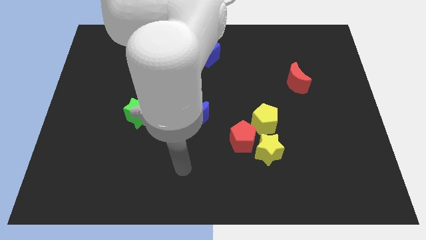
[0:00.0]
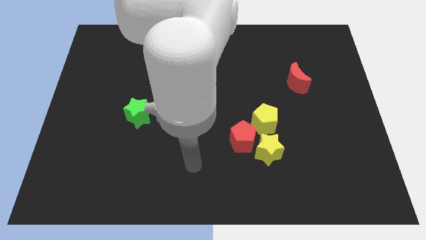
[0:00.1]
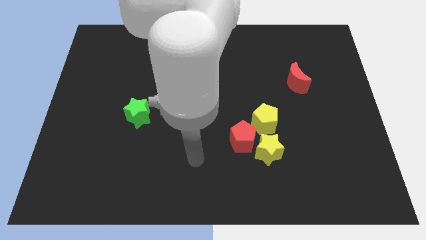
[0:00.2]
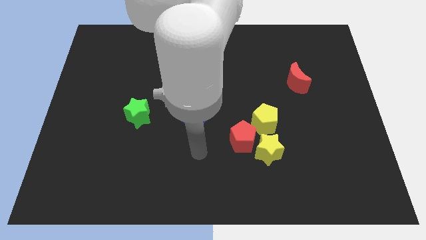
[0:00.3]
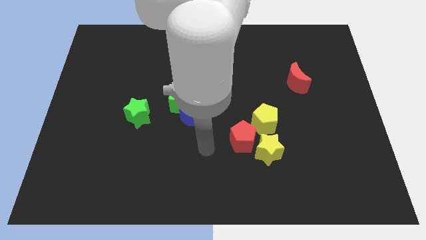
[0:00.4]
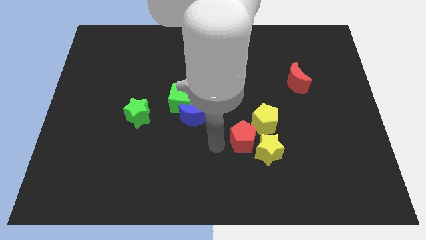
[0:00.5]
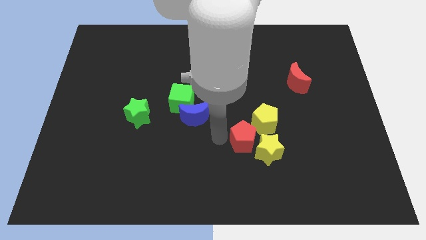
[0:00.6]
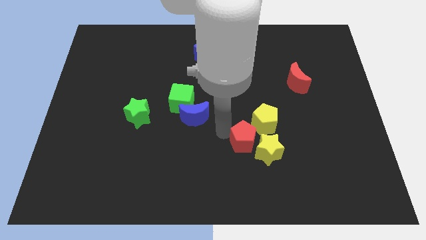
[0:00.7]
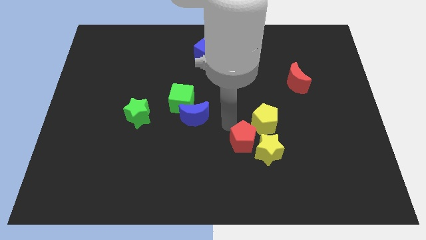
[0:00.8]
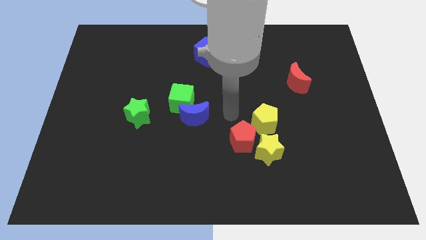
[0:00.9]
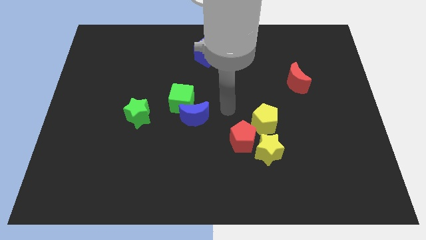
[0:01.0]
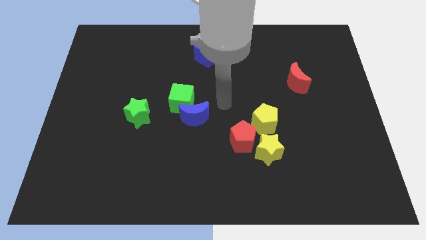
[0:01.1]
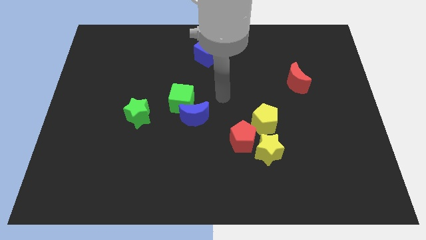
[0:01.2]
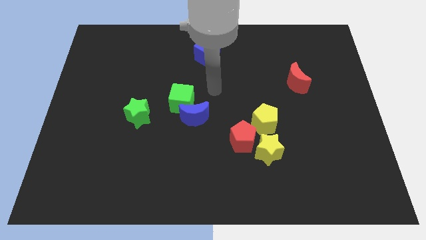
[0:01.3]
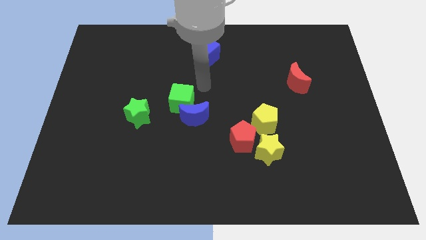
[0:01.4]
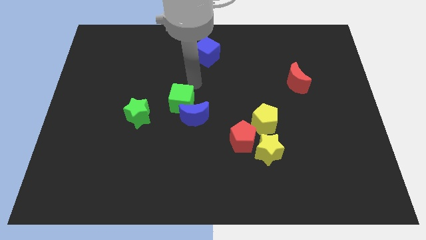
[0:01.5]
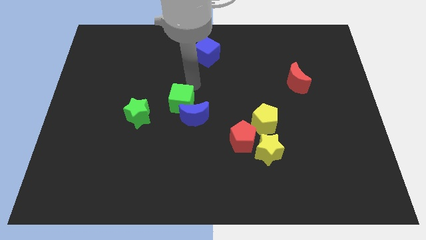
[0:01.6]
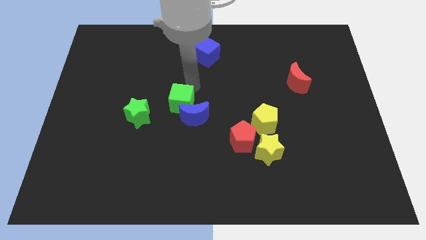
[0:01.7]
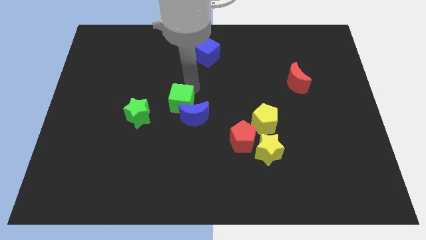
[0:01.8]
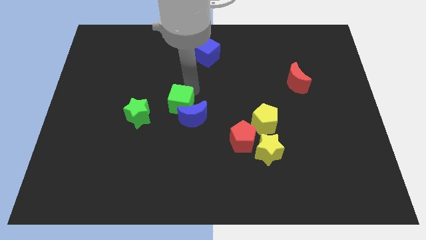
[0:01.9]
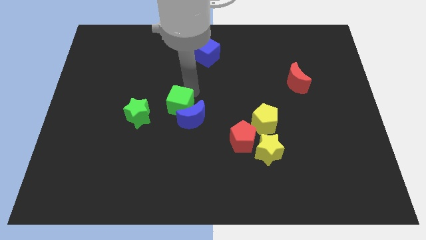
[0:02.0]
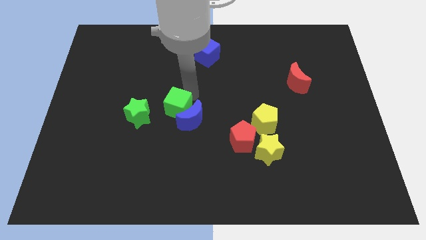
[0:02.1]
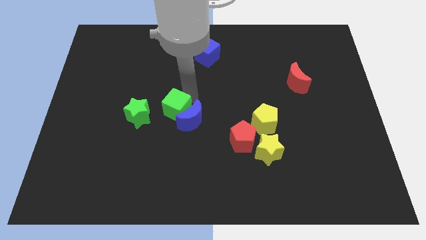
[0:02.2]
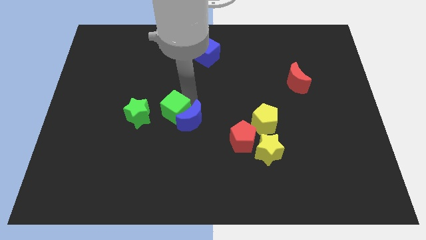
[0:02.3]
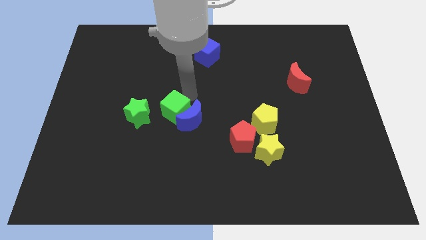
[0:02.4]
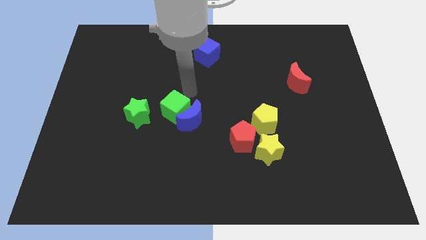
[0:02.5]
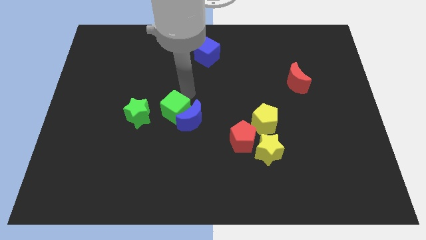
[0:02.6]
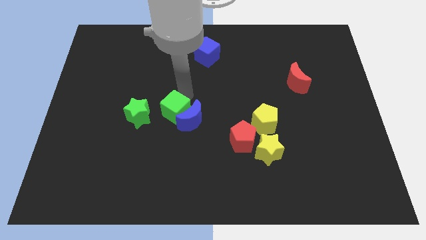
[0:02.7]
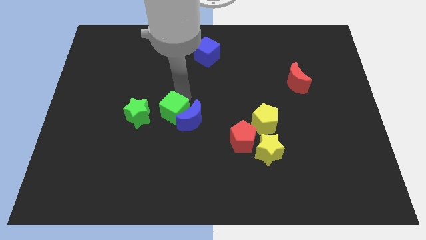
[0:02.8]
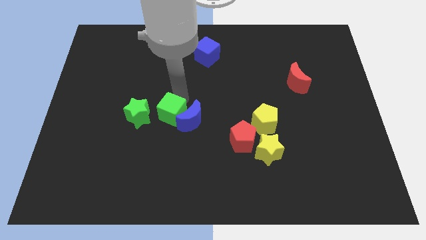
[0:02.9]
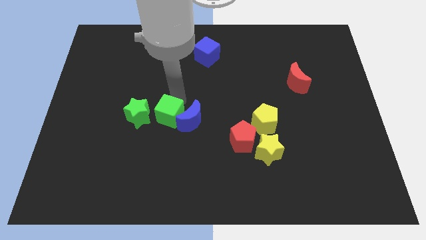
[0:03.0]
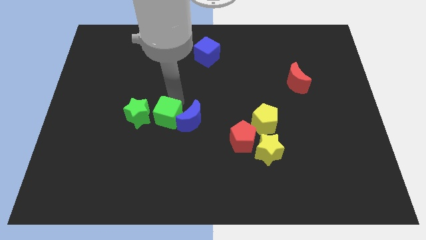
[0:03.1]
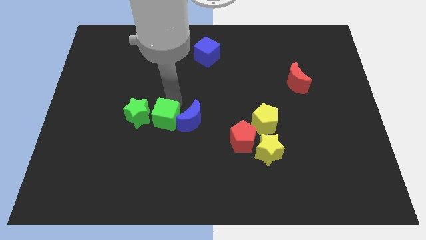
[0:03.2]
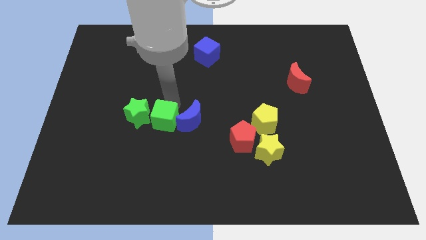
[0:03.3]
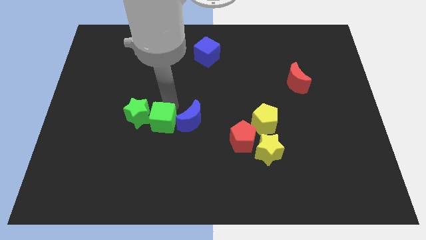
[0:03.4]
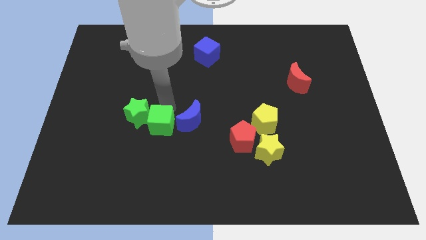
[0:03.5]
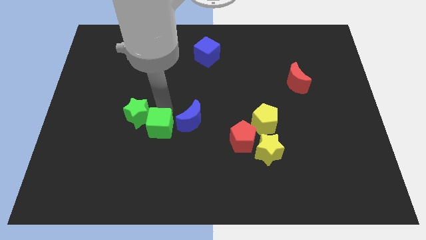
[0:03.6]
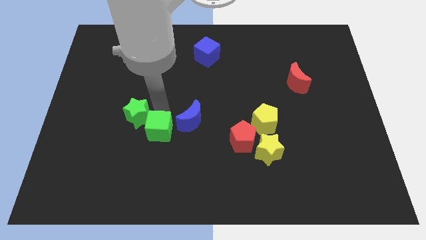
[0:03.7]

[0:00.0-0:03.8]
slightly slide the green cube downwards

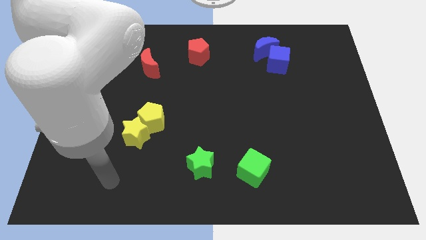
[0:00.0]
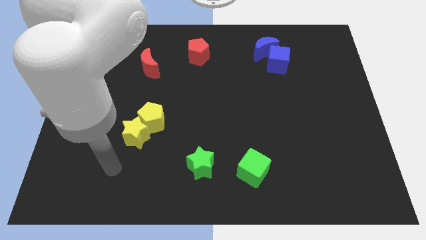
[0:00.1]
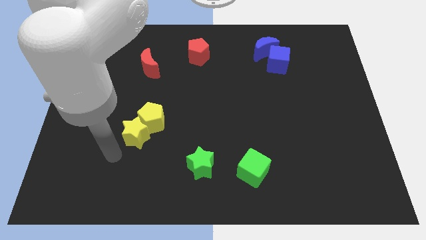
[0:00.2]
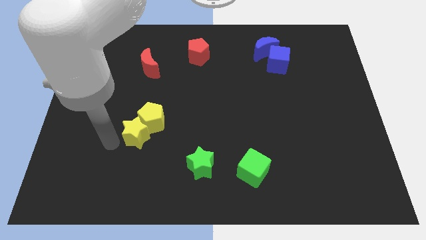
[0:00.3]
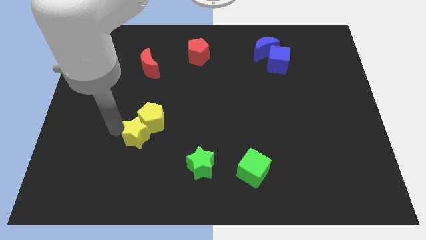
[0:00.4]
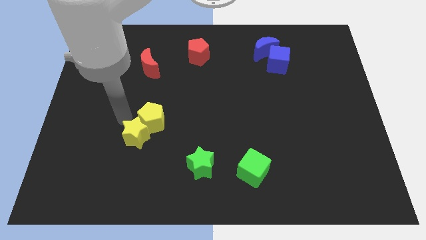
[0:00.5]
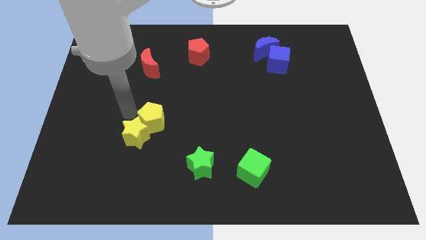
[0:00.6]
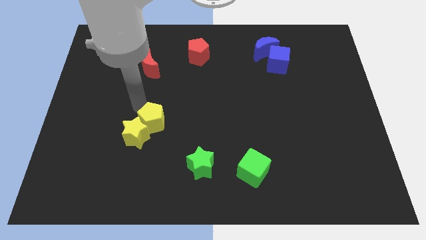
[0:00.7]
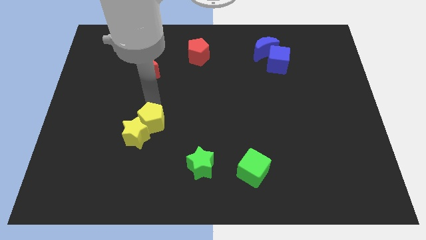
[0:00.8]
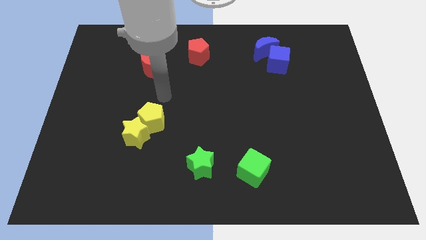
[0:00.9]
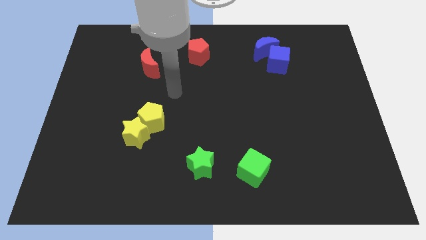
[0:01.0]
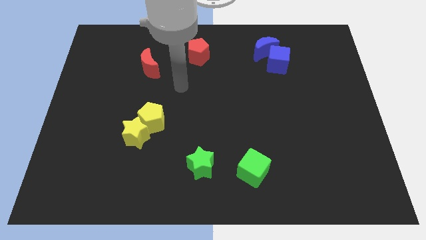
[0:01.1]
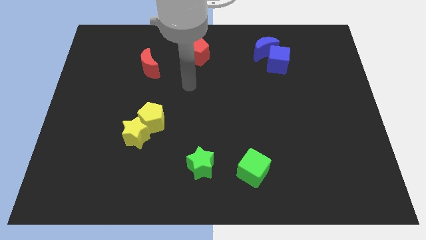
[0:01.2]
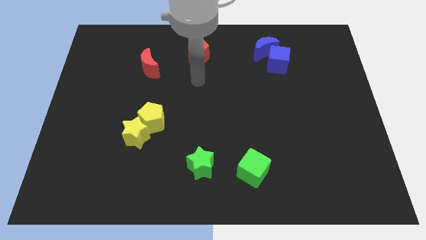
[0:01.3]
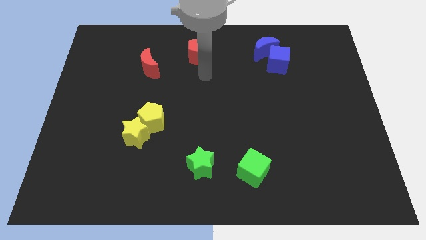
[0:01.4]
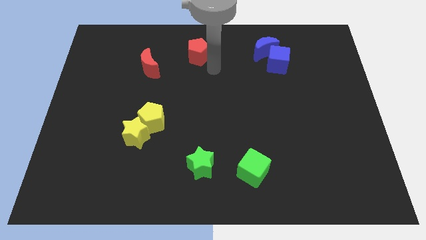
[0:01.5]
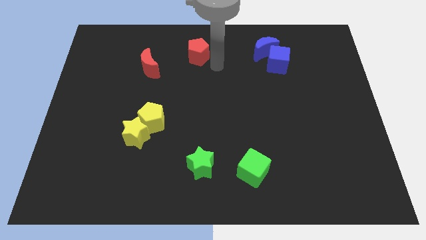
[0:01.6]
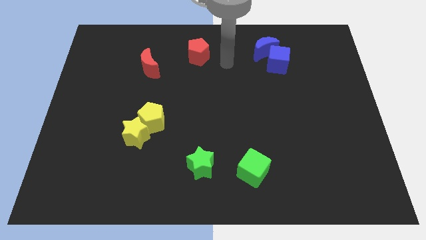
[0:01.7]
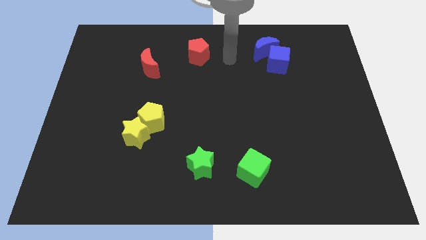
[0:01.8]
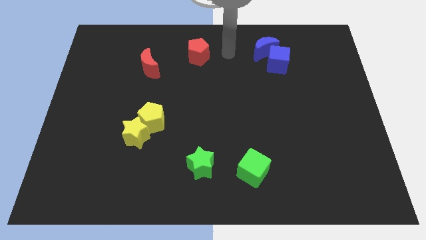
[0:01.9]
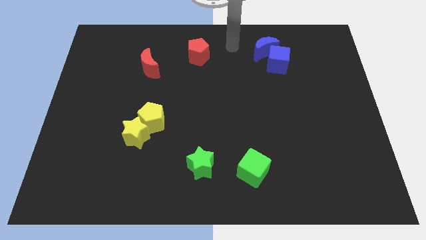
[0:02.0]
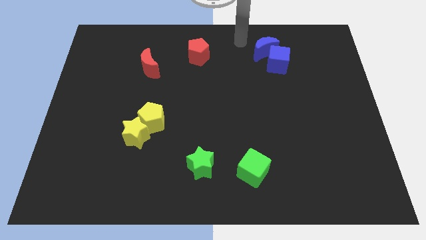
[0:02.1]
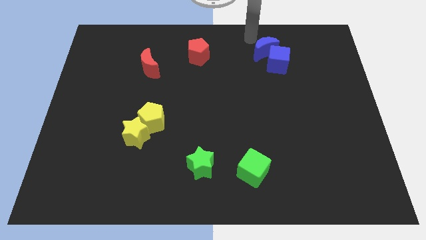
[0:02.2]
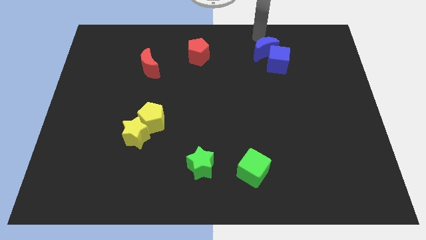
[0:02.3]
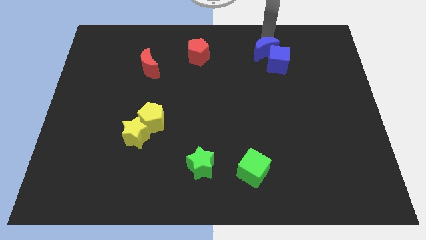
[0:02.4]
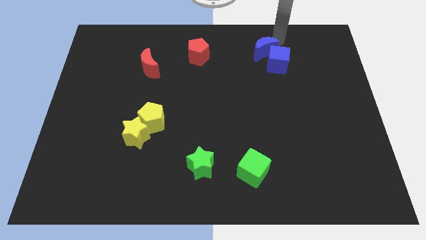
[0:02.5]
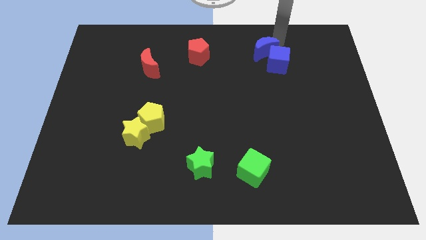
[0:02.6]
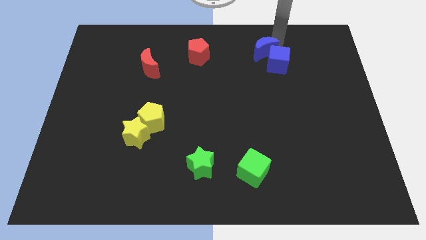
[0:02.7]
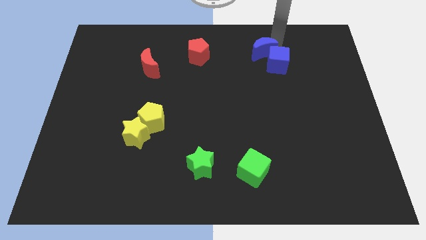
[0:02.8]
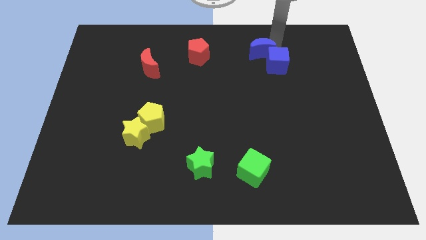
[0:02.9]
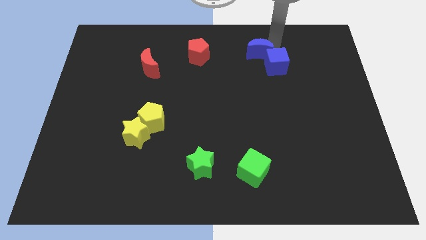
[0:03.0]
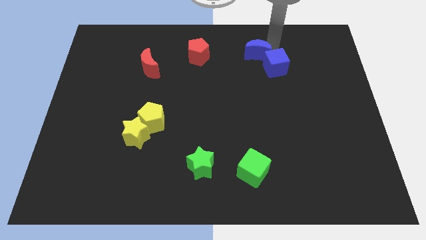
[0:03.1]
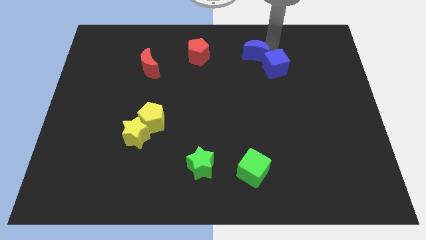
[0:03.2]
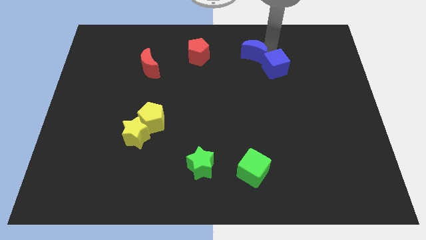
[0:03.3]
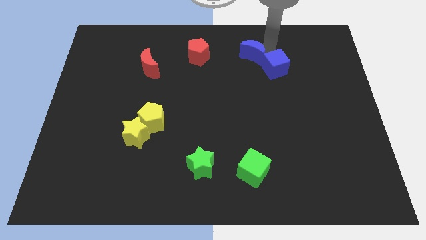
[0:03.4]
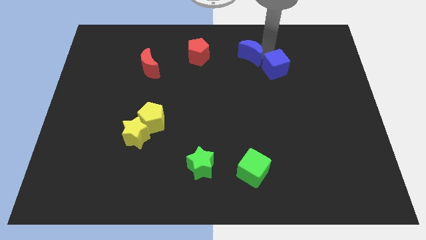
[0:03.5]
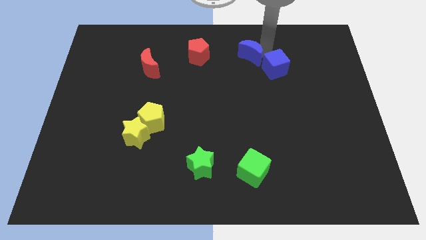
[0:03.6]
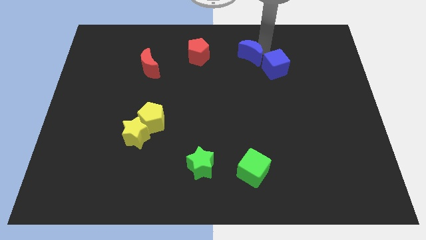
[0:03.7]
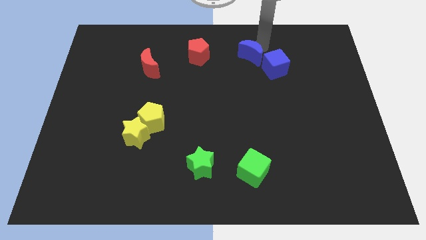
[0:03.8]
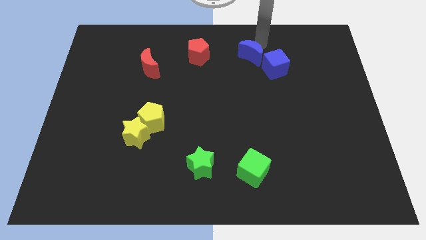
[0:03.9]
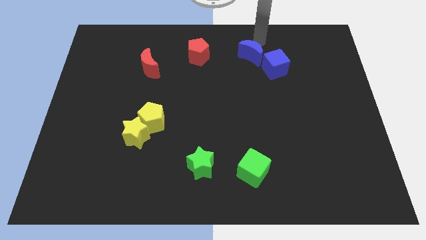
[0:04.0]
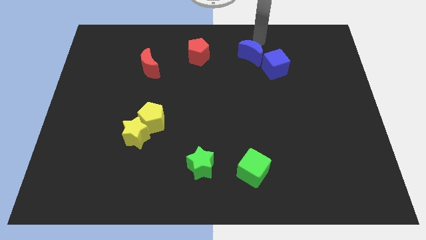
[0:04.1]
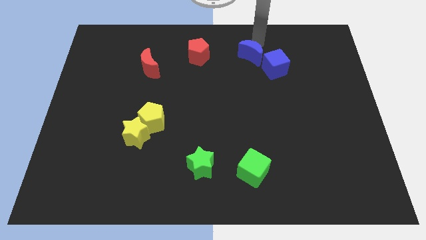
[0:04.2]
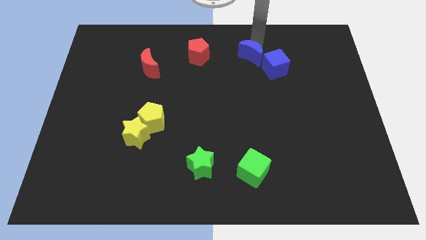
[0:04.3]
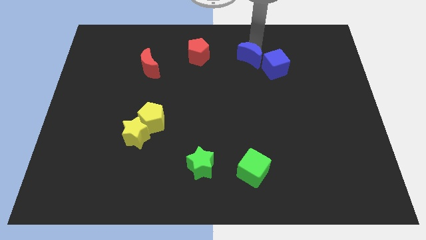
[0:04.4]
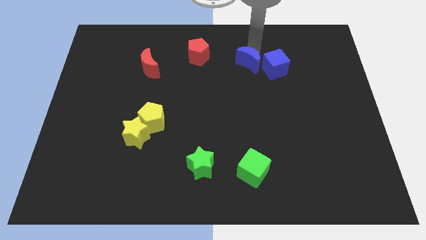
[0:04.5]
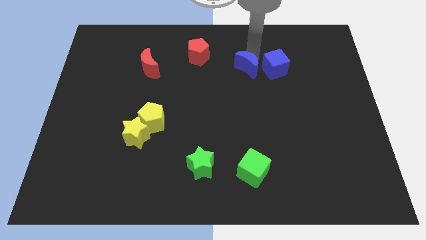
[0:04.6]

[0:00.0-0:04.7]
slightly move the blue moon downwards and then to the left
